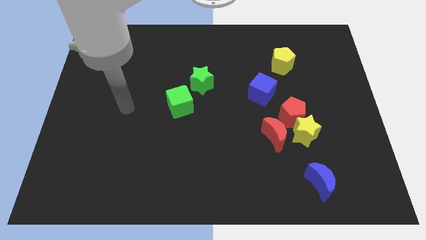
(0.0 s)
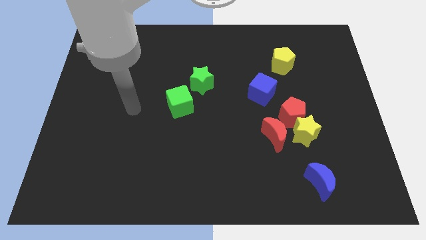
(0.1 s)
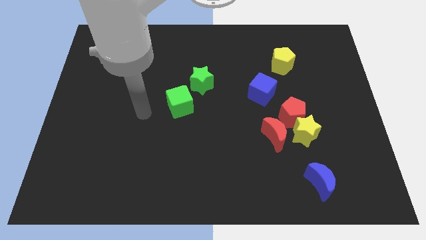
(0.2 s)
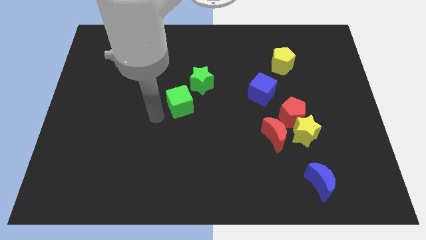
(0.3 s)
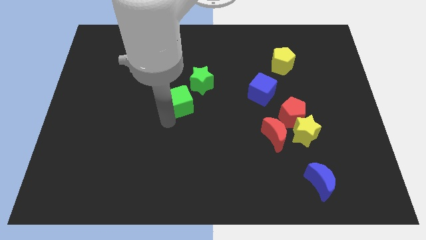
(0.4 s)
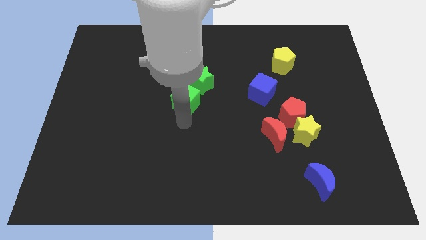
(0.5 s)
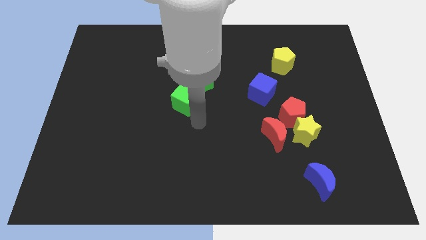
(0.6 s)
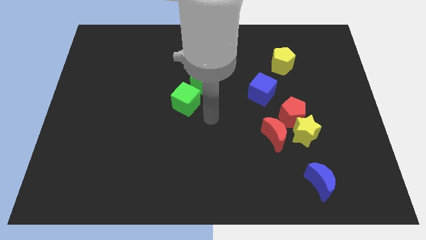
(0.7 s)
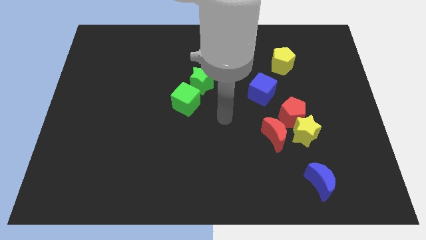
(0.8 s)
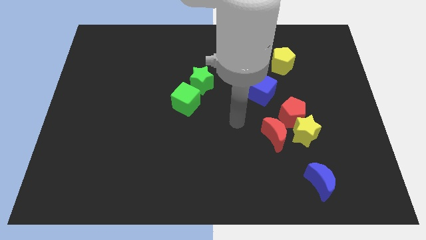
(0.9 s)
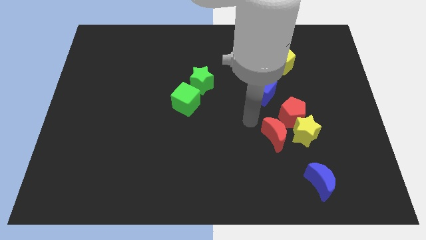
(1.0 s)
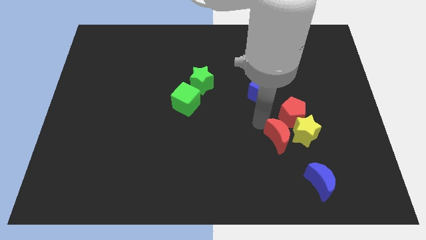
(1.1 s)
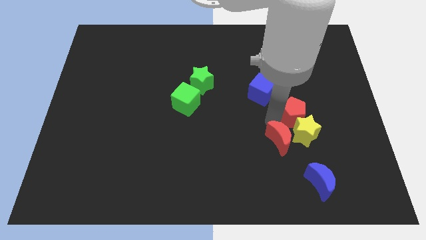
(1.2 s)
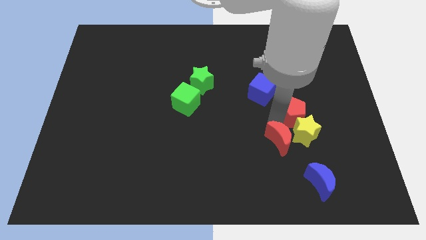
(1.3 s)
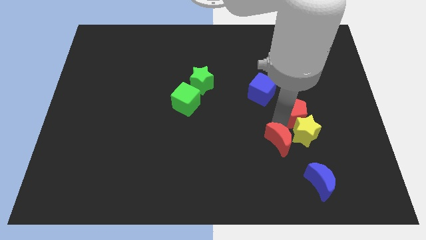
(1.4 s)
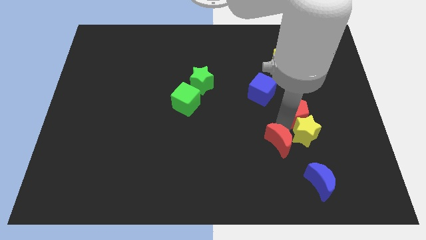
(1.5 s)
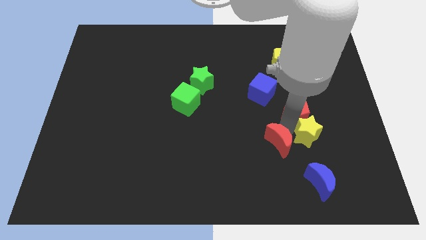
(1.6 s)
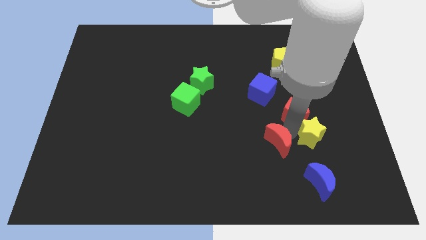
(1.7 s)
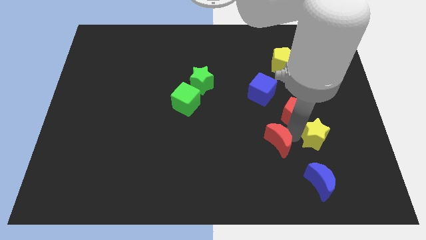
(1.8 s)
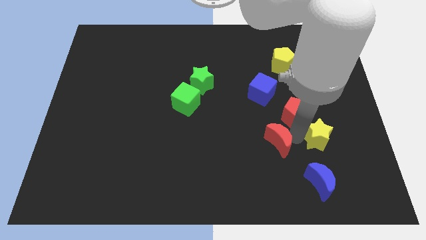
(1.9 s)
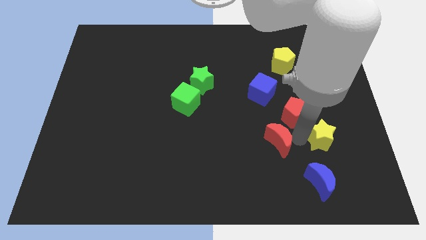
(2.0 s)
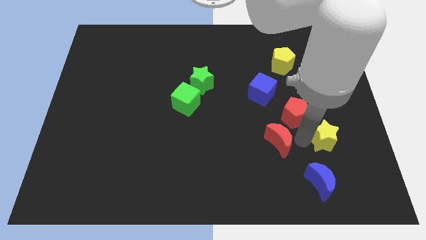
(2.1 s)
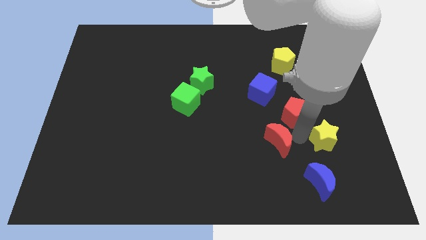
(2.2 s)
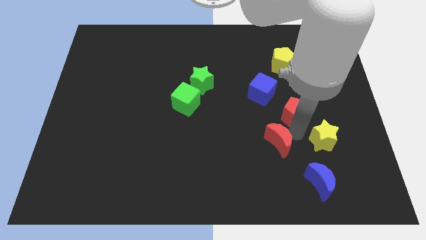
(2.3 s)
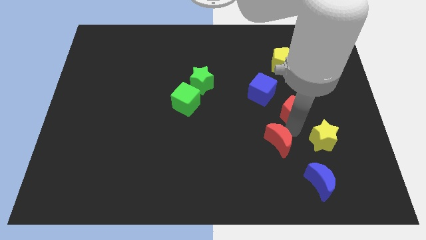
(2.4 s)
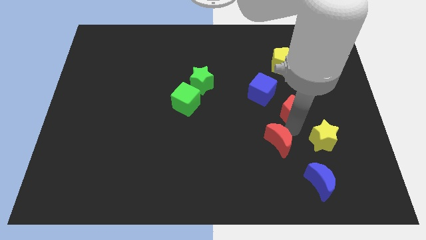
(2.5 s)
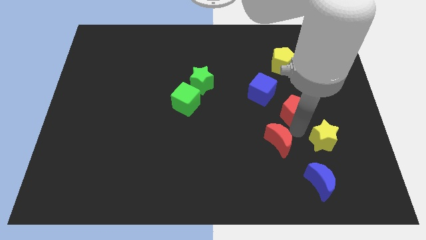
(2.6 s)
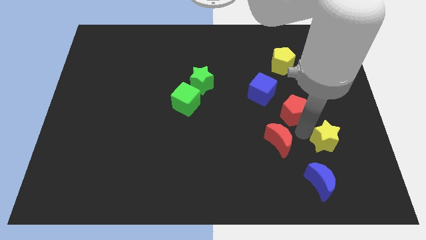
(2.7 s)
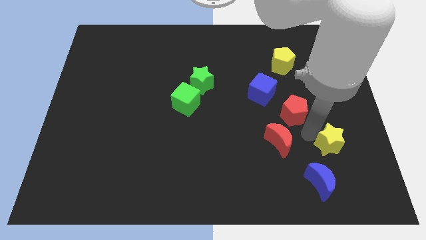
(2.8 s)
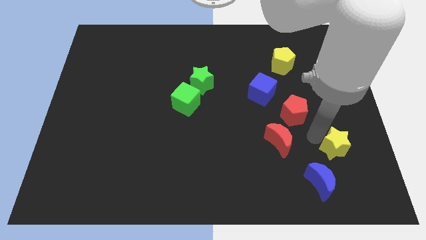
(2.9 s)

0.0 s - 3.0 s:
pull the yellow star apart from the red pentagon and red moon

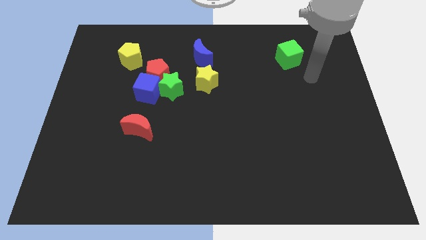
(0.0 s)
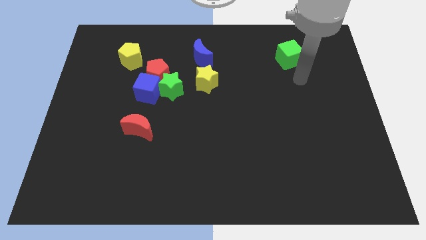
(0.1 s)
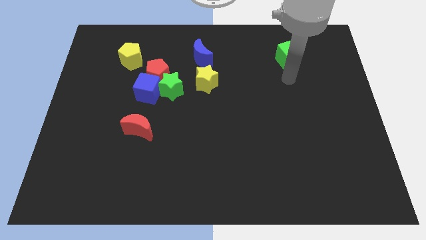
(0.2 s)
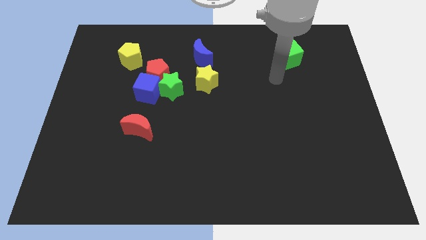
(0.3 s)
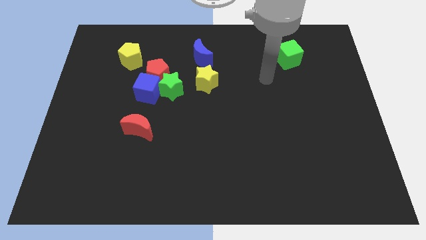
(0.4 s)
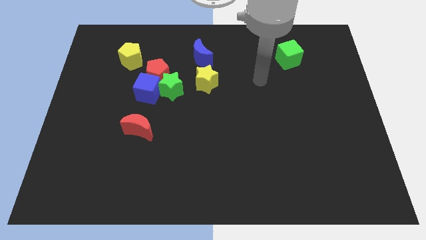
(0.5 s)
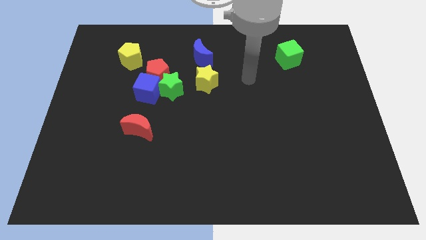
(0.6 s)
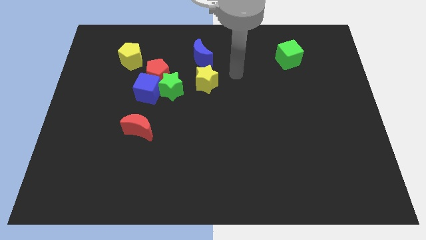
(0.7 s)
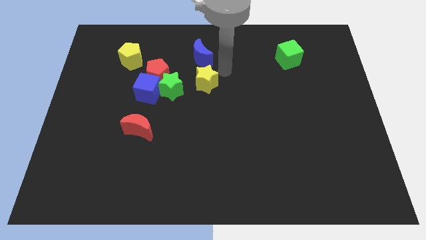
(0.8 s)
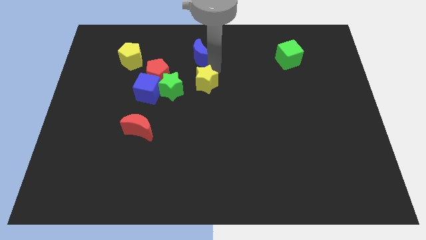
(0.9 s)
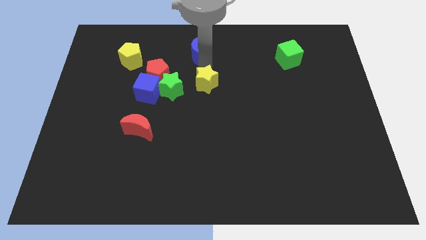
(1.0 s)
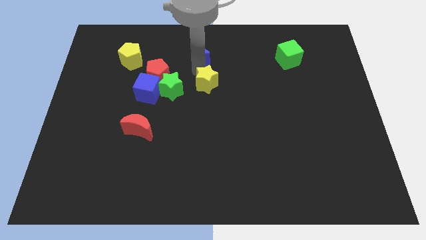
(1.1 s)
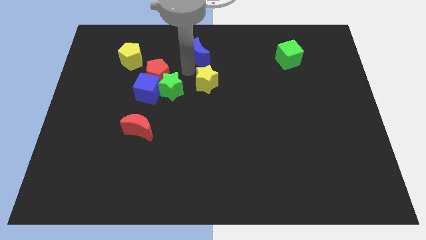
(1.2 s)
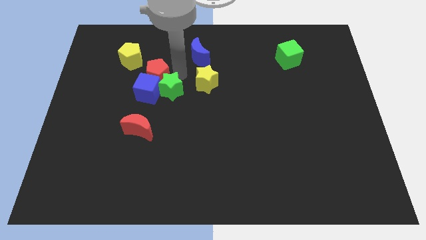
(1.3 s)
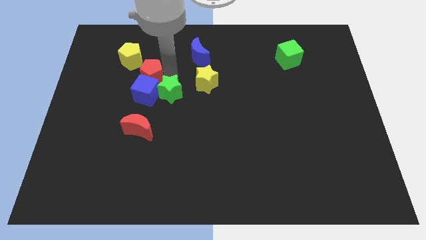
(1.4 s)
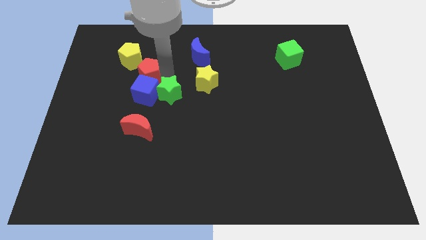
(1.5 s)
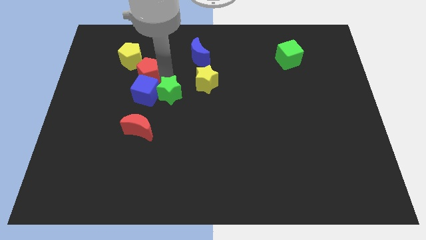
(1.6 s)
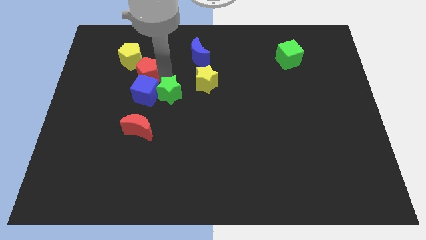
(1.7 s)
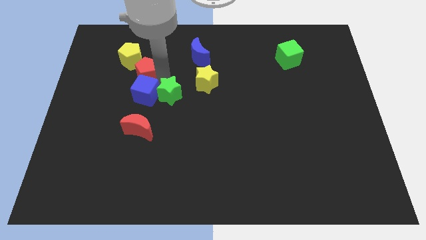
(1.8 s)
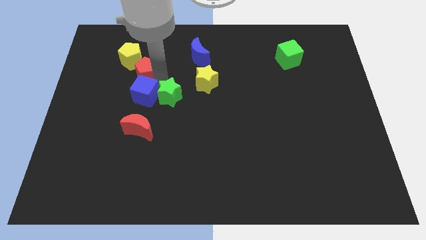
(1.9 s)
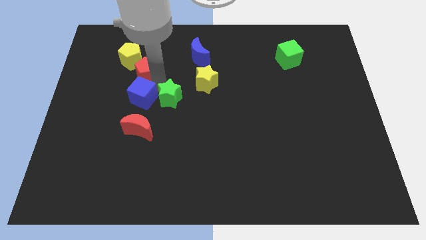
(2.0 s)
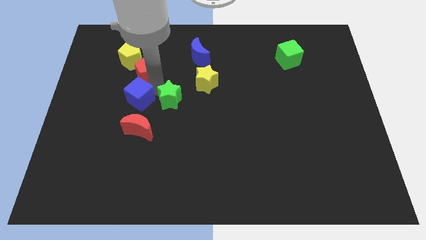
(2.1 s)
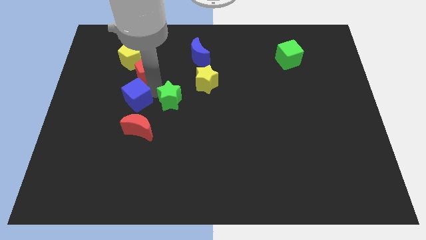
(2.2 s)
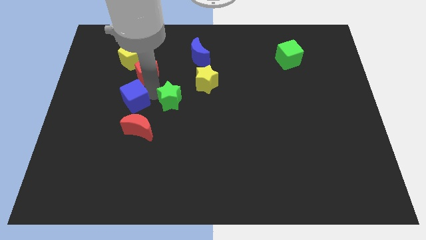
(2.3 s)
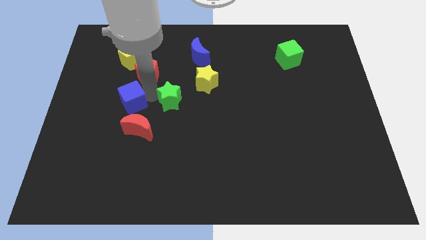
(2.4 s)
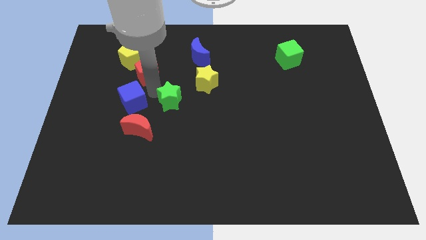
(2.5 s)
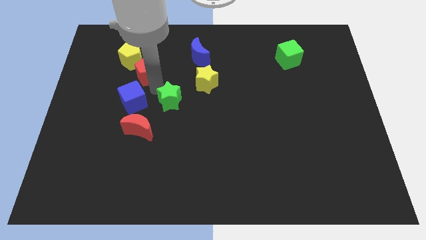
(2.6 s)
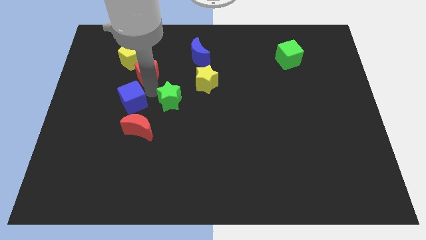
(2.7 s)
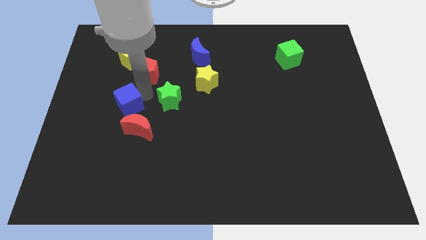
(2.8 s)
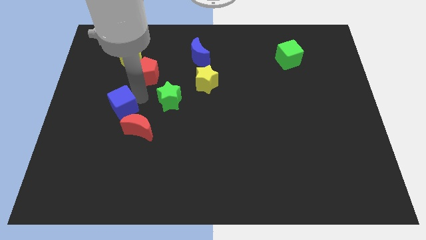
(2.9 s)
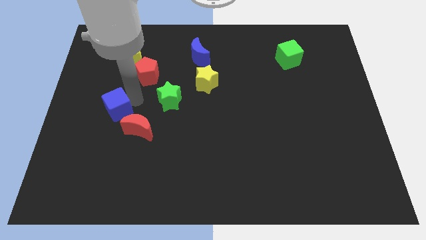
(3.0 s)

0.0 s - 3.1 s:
move the blue cube away from the green star and red pentagon

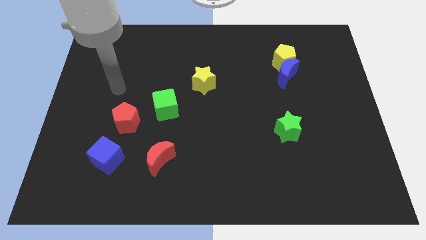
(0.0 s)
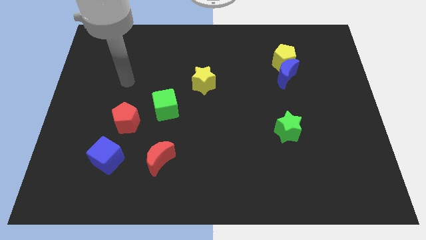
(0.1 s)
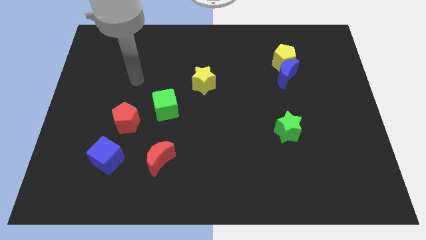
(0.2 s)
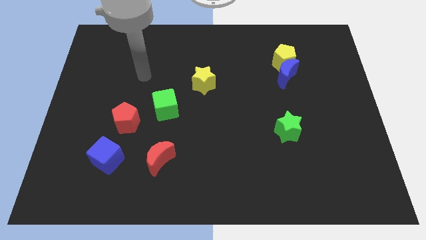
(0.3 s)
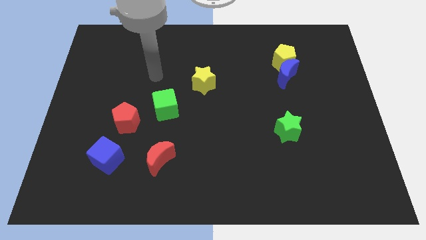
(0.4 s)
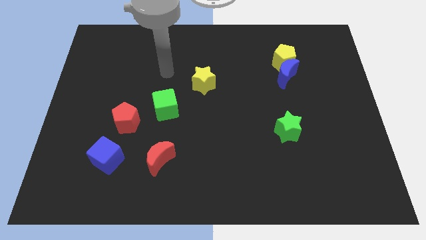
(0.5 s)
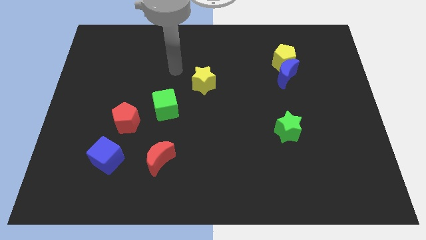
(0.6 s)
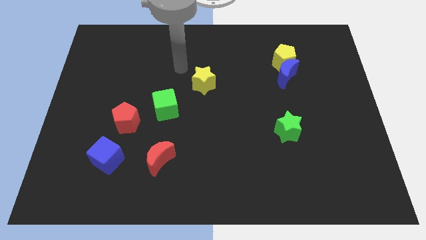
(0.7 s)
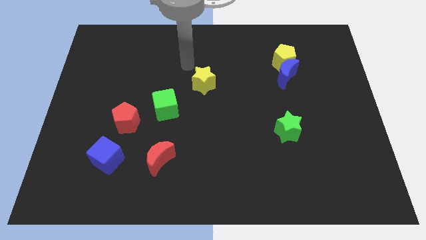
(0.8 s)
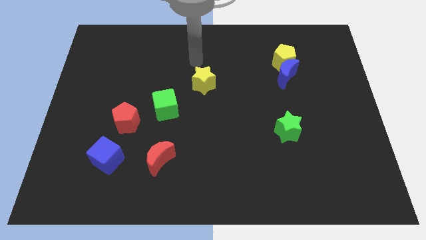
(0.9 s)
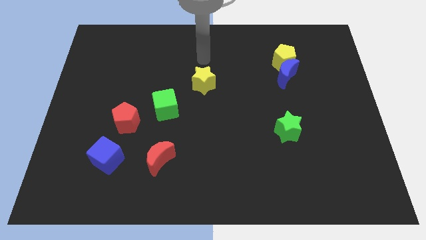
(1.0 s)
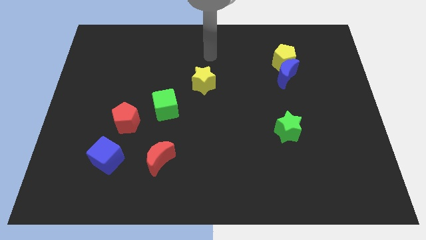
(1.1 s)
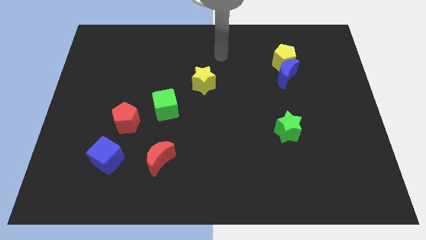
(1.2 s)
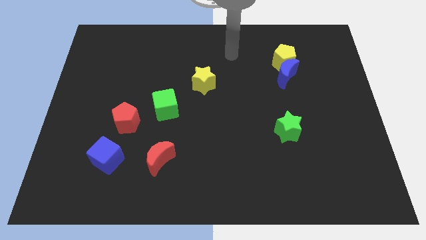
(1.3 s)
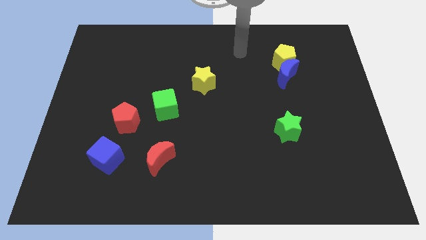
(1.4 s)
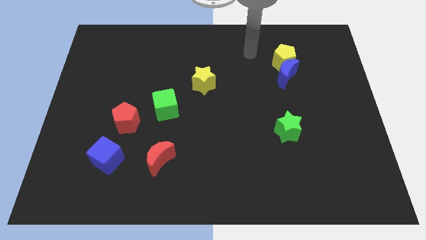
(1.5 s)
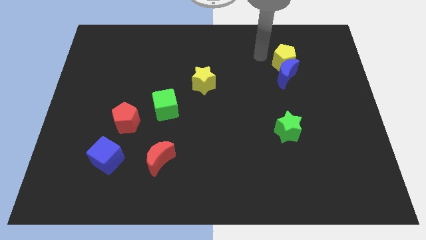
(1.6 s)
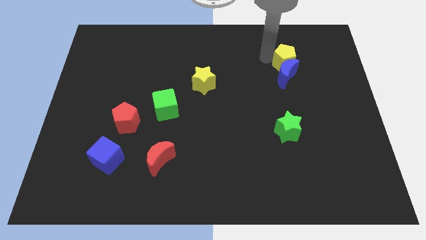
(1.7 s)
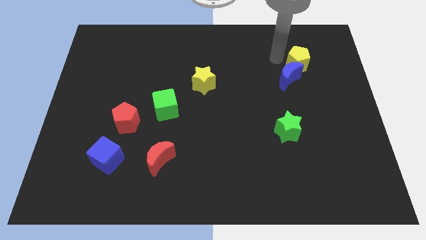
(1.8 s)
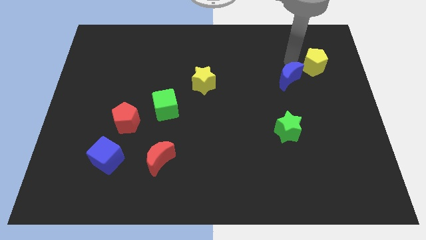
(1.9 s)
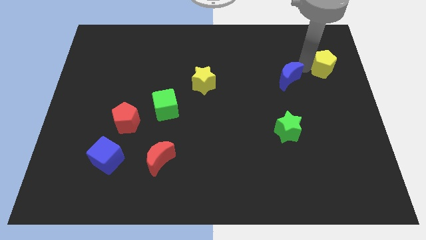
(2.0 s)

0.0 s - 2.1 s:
separate the blue moon from the yellow pentagon

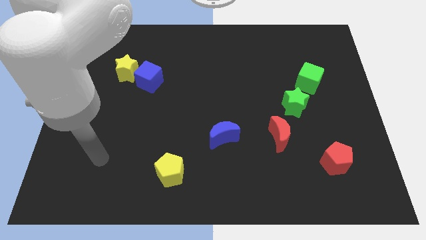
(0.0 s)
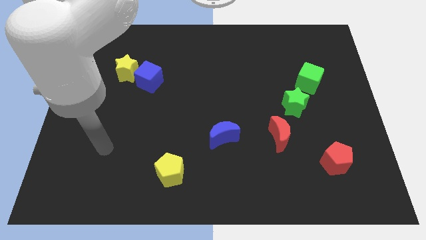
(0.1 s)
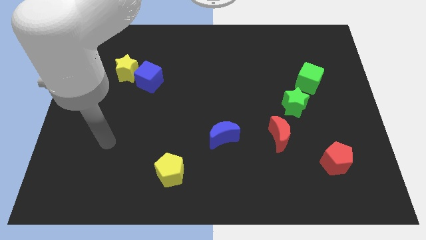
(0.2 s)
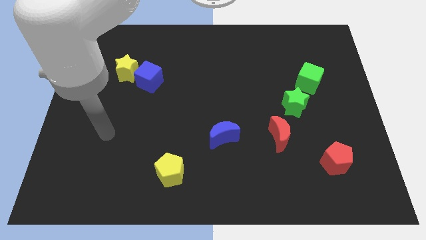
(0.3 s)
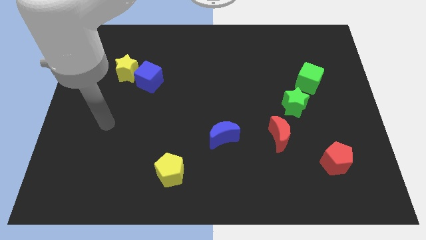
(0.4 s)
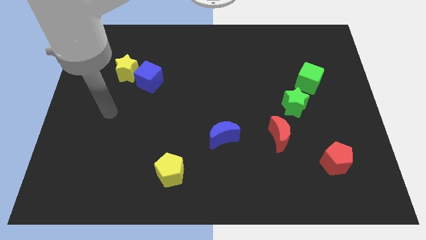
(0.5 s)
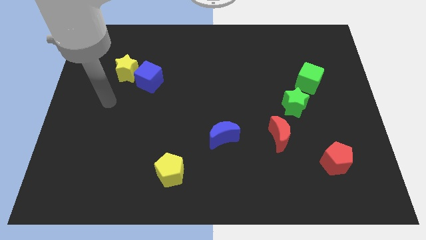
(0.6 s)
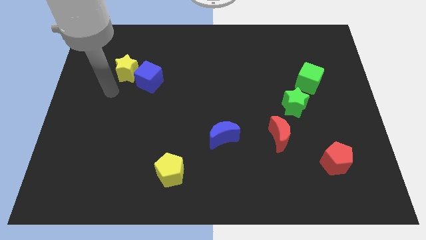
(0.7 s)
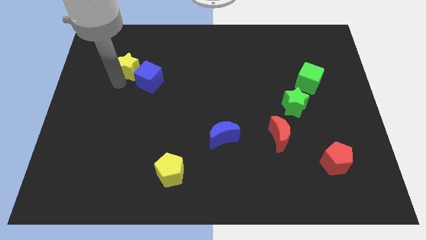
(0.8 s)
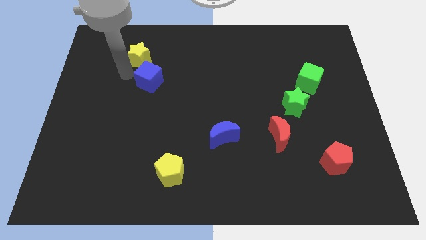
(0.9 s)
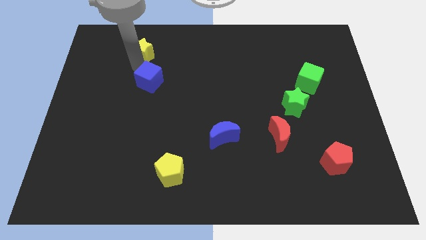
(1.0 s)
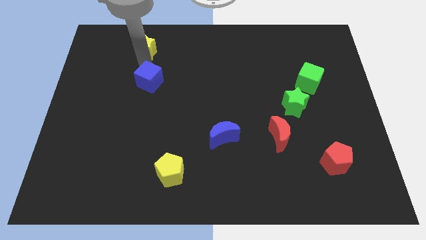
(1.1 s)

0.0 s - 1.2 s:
pull the blue cube apart from the yellow star
